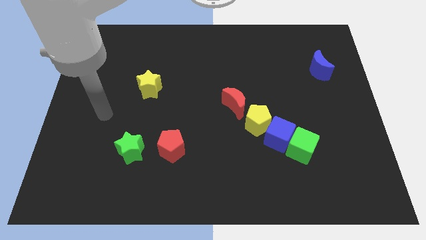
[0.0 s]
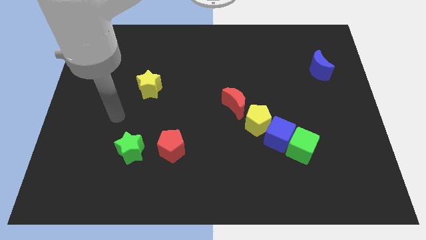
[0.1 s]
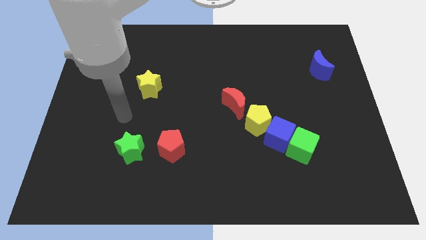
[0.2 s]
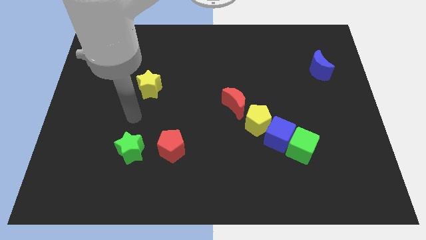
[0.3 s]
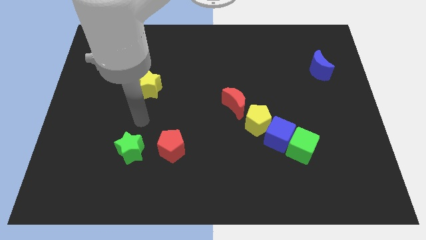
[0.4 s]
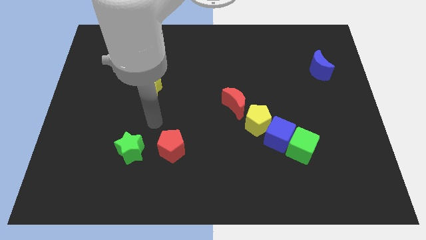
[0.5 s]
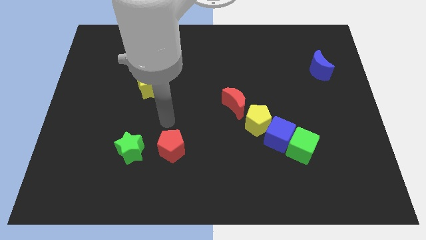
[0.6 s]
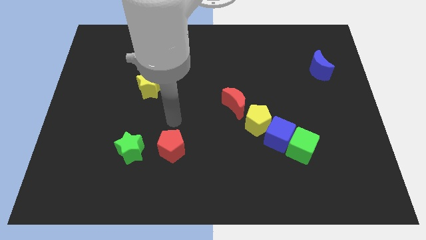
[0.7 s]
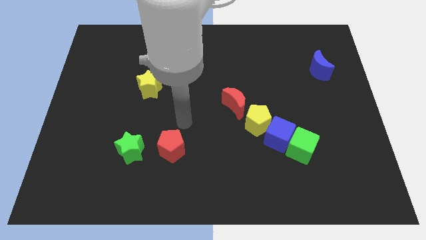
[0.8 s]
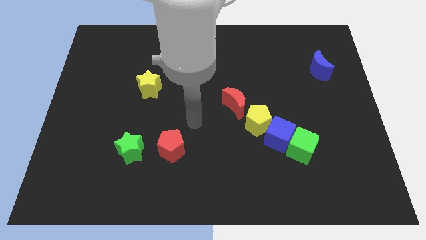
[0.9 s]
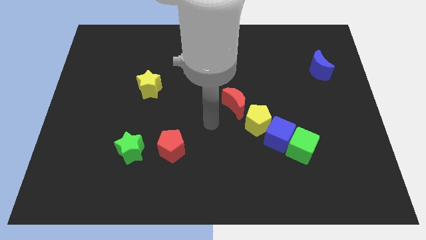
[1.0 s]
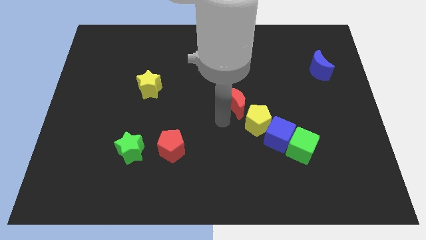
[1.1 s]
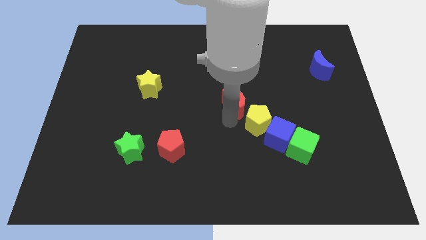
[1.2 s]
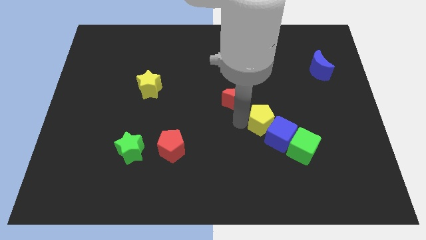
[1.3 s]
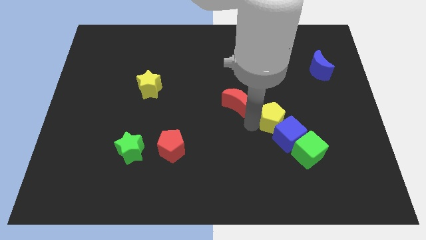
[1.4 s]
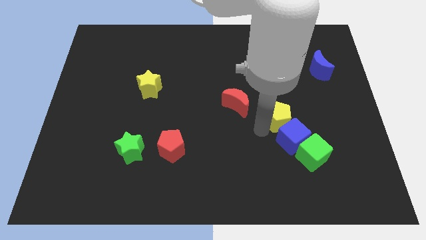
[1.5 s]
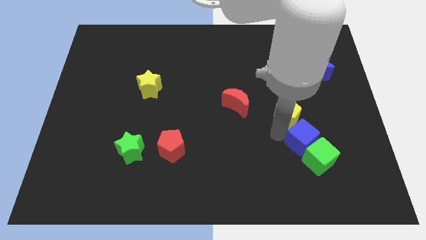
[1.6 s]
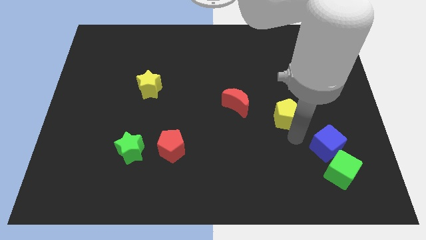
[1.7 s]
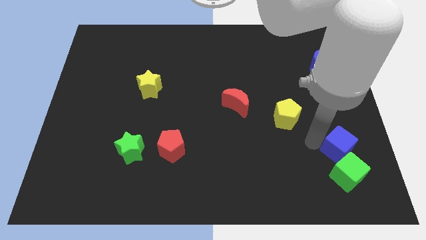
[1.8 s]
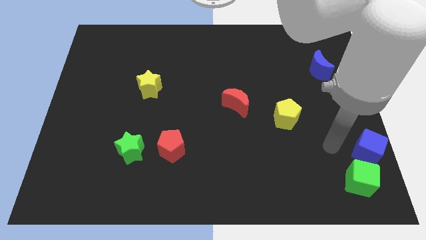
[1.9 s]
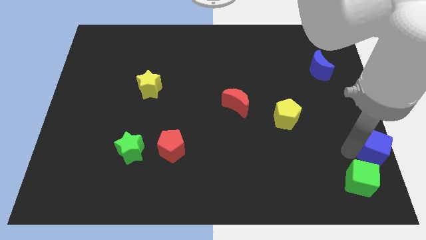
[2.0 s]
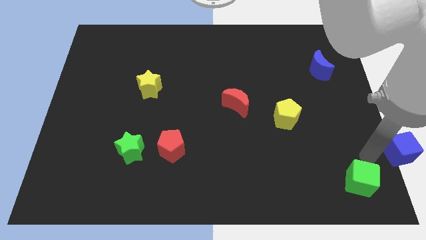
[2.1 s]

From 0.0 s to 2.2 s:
separate the green cube from the blue cube

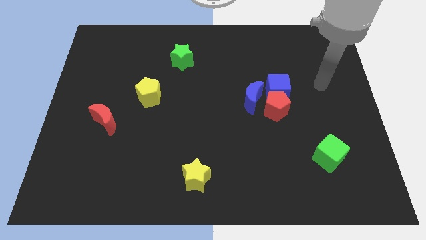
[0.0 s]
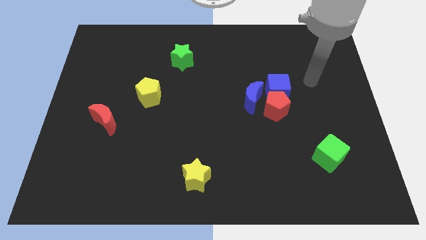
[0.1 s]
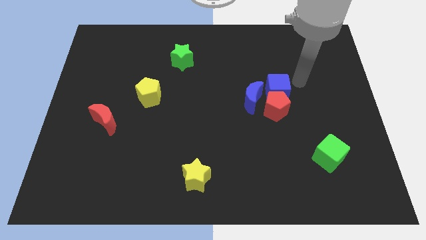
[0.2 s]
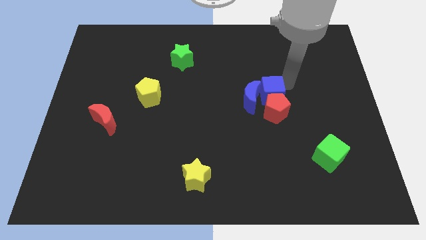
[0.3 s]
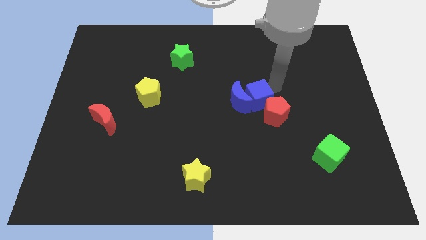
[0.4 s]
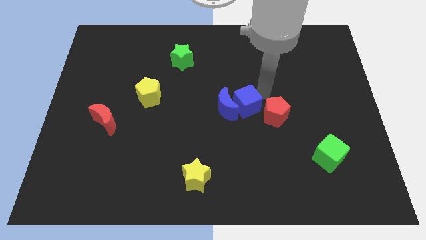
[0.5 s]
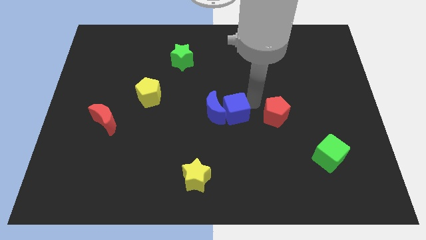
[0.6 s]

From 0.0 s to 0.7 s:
separate the red pentagon from the blue cube and blue moon

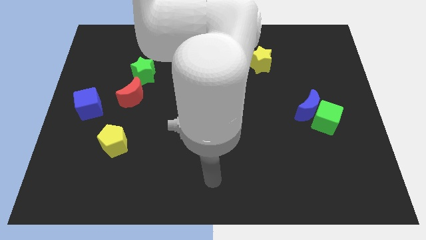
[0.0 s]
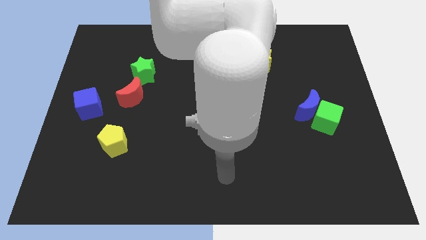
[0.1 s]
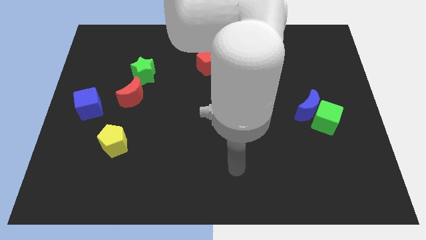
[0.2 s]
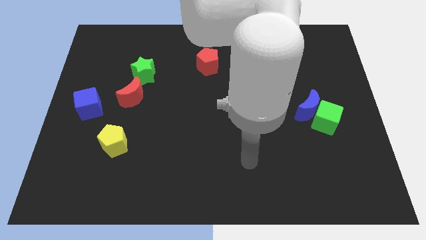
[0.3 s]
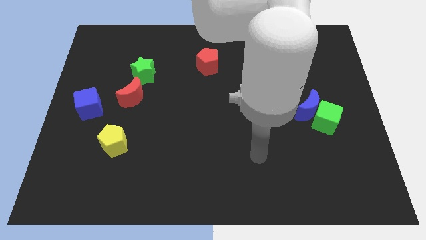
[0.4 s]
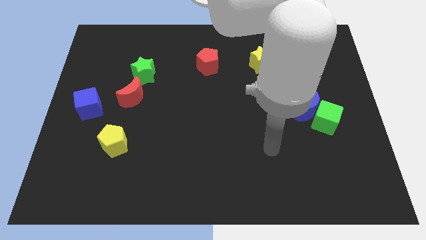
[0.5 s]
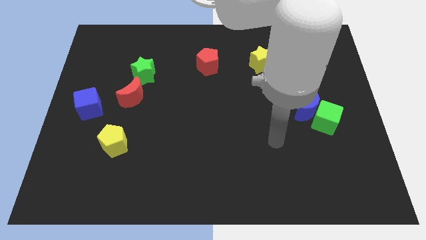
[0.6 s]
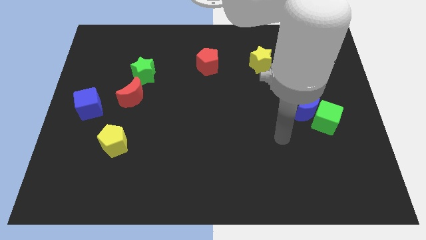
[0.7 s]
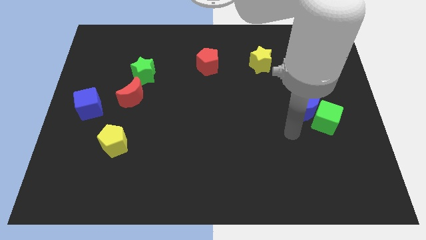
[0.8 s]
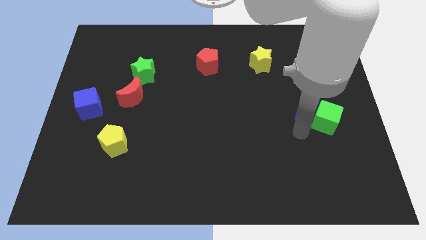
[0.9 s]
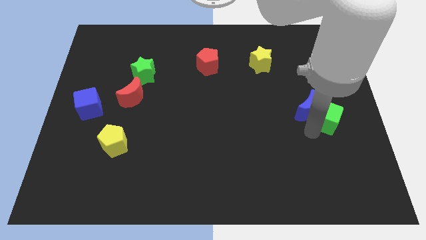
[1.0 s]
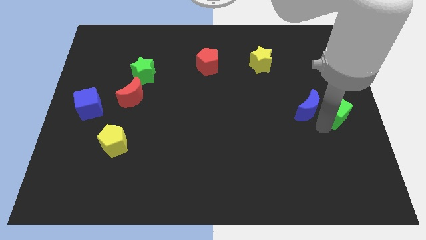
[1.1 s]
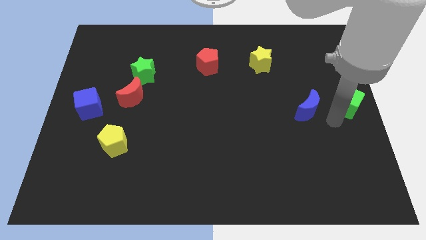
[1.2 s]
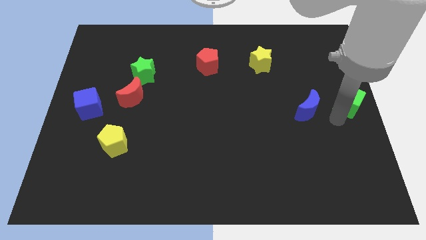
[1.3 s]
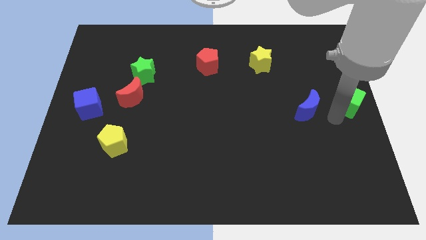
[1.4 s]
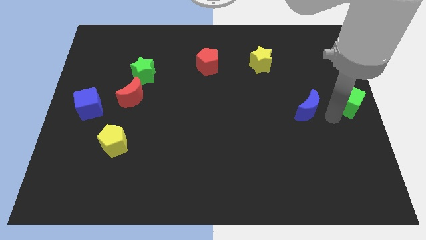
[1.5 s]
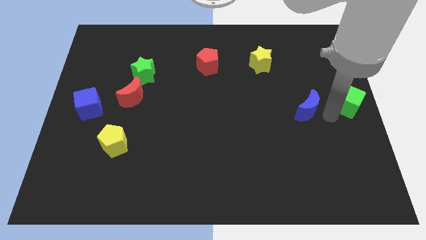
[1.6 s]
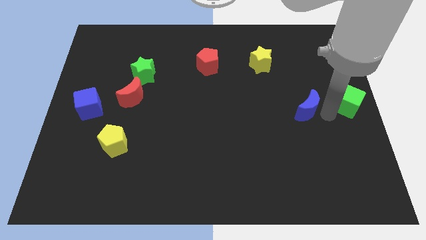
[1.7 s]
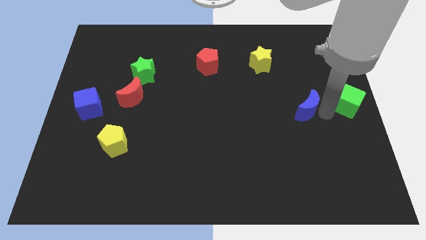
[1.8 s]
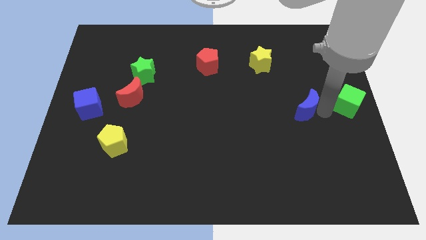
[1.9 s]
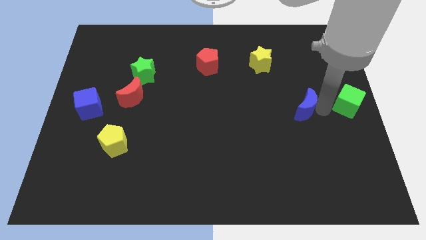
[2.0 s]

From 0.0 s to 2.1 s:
separate the blue moon from the green cube

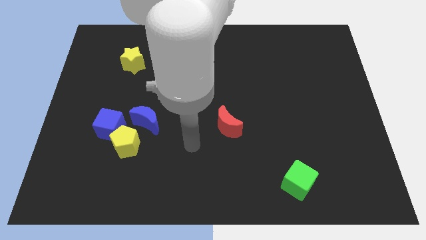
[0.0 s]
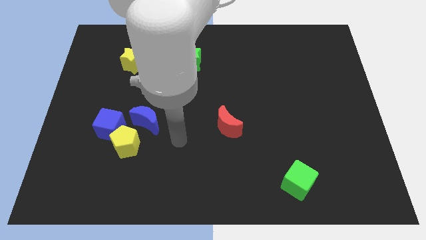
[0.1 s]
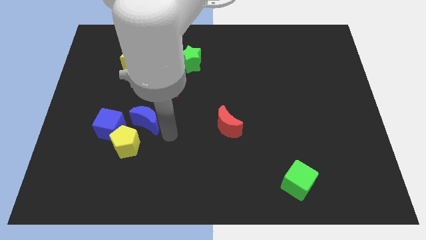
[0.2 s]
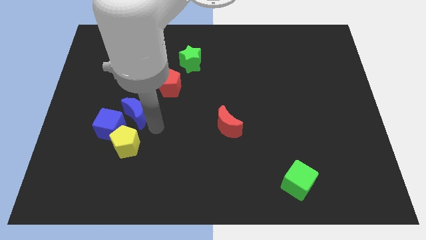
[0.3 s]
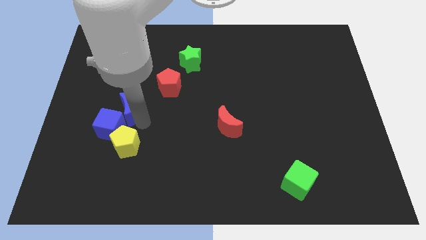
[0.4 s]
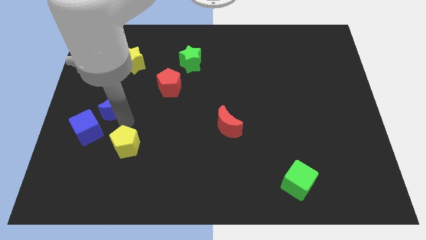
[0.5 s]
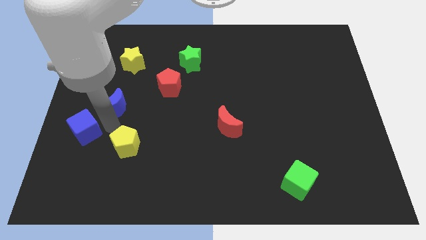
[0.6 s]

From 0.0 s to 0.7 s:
pull the yellow pentagon apart from the blue cube and blue moon

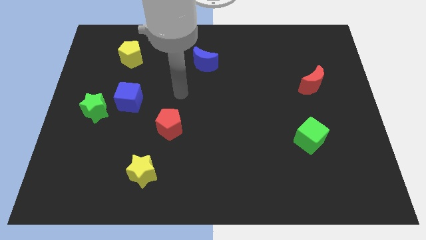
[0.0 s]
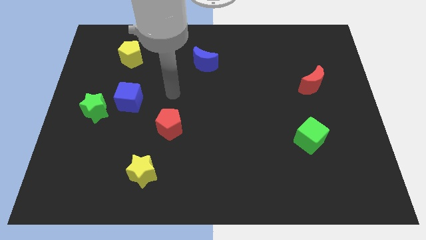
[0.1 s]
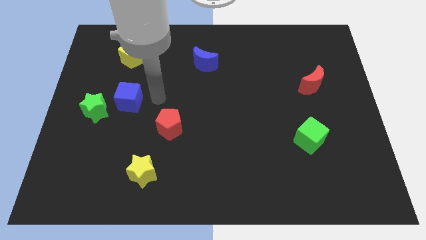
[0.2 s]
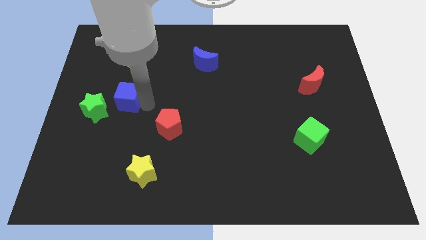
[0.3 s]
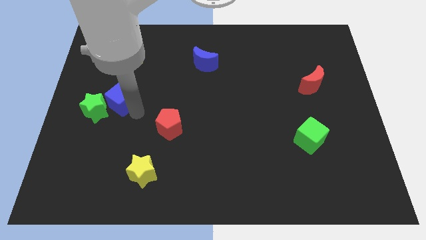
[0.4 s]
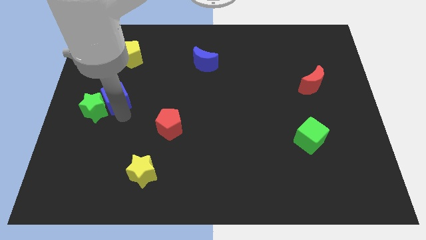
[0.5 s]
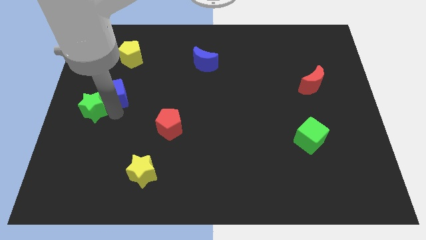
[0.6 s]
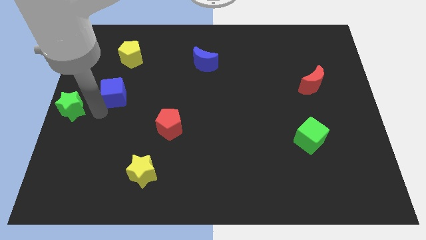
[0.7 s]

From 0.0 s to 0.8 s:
separate the blue cube from the green star

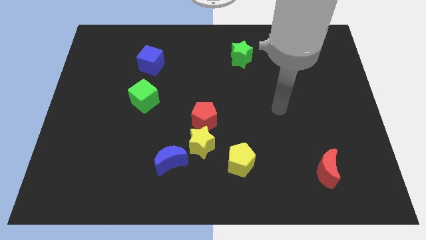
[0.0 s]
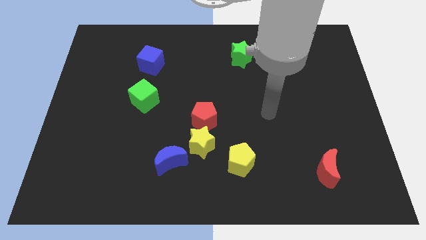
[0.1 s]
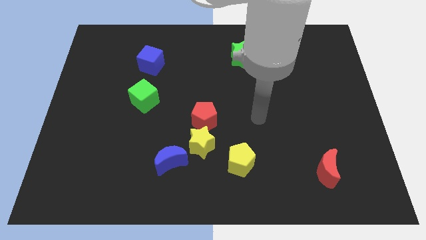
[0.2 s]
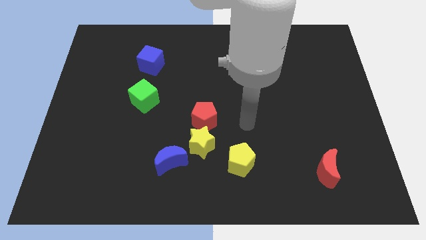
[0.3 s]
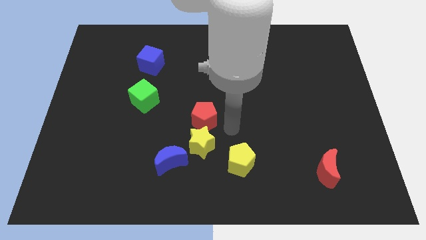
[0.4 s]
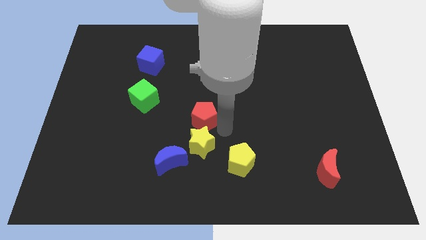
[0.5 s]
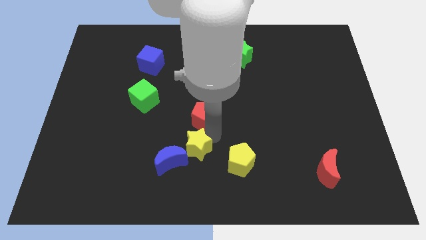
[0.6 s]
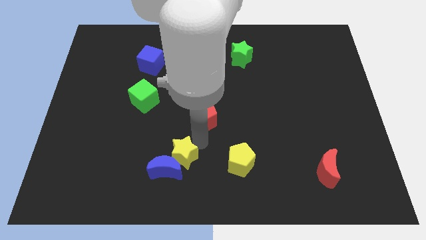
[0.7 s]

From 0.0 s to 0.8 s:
pull the red pentagon apart from the yellow star

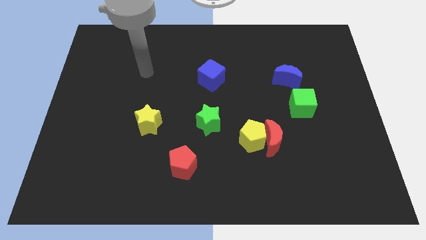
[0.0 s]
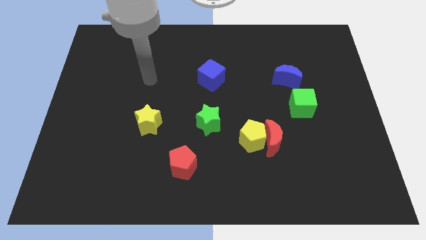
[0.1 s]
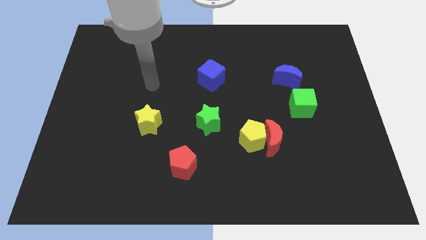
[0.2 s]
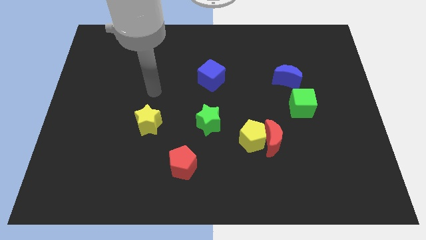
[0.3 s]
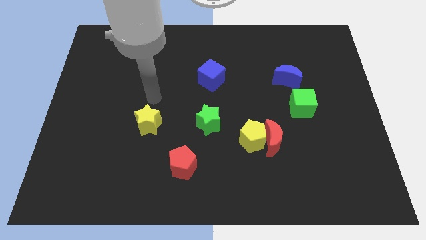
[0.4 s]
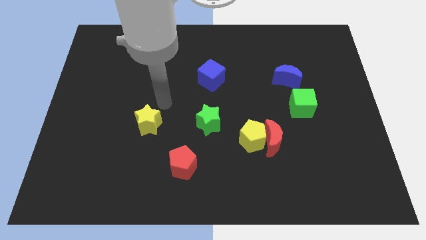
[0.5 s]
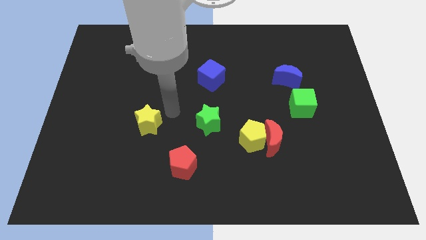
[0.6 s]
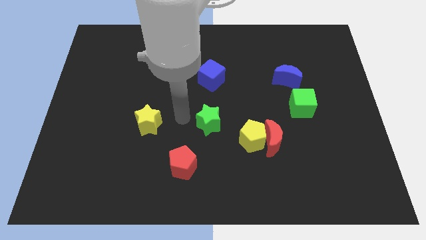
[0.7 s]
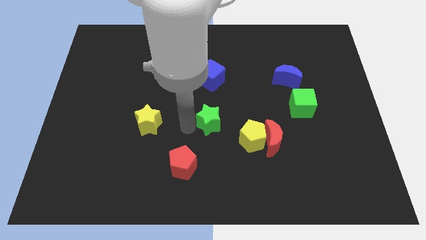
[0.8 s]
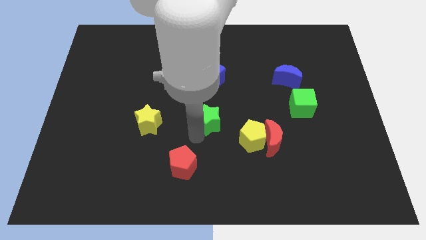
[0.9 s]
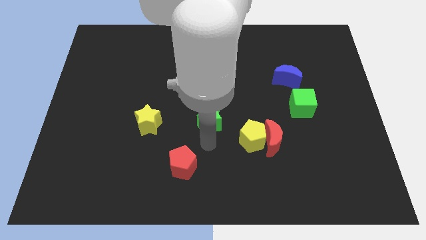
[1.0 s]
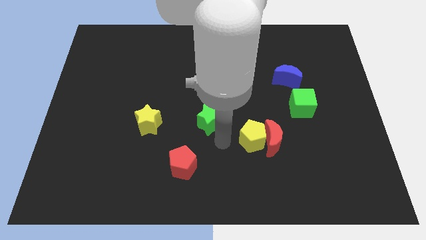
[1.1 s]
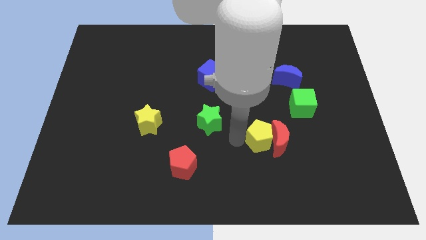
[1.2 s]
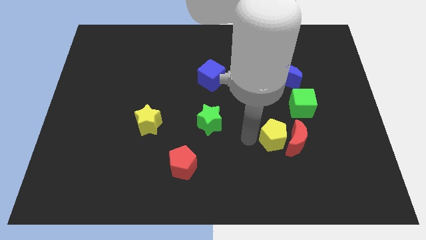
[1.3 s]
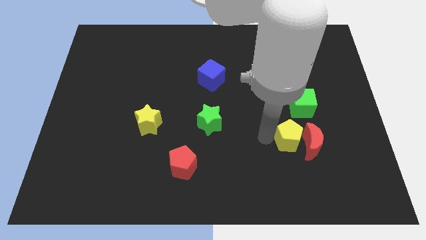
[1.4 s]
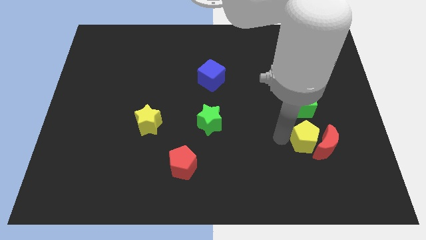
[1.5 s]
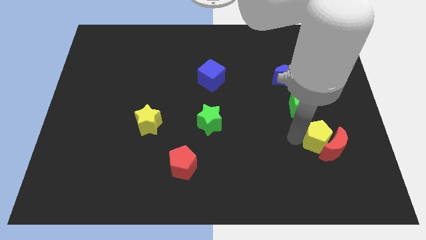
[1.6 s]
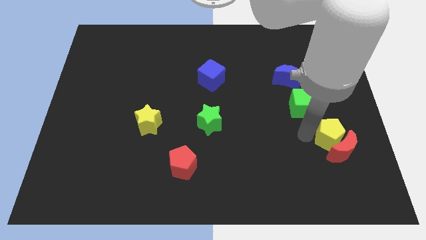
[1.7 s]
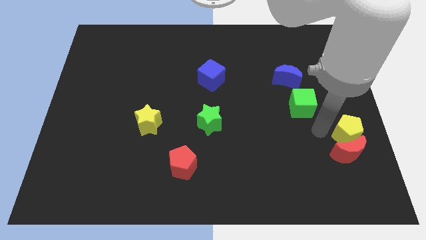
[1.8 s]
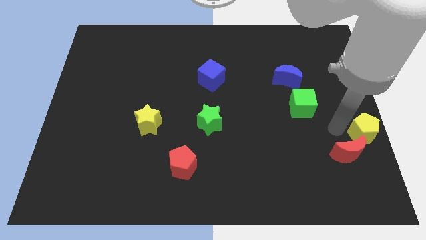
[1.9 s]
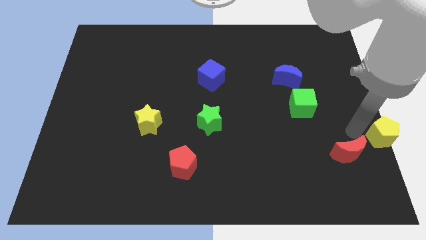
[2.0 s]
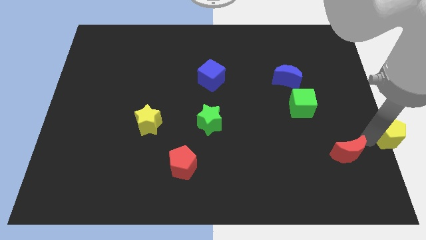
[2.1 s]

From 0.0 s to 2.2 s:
separate the red moon from the yellow pentagon
